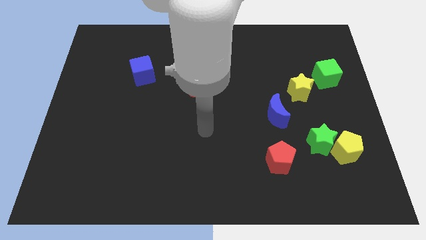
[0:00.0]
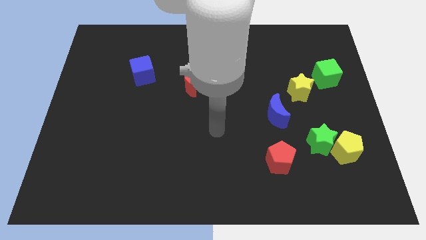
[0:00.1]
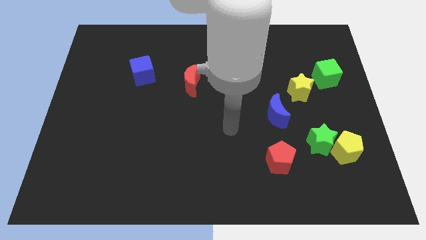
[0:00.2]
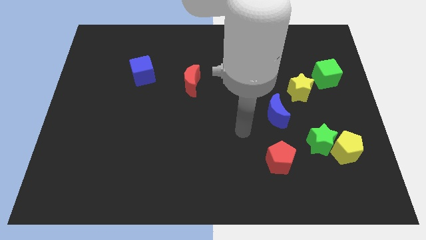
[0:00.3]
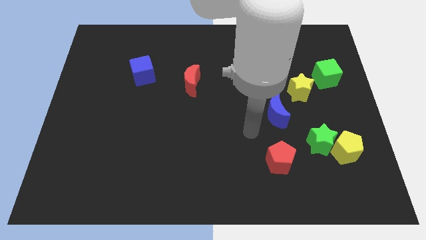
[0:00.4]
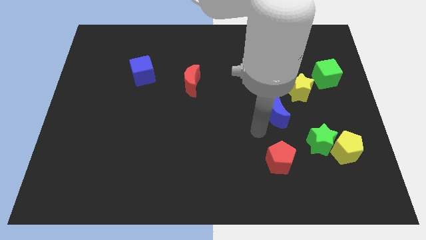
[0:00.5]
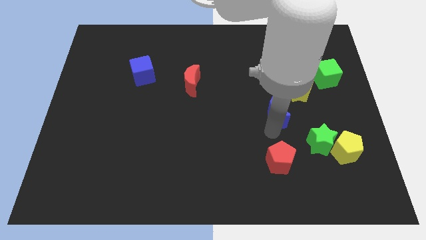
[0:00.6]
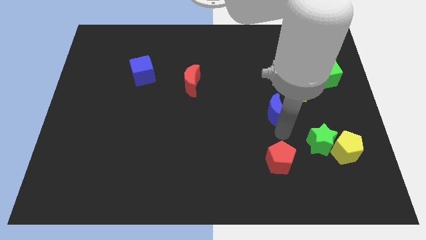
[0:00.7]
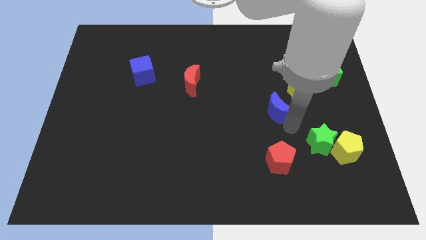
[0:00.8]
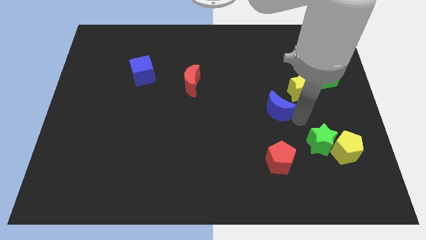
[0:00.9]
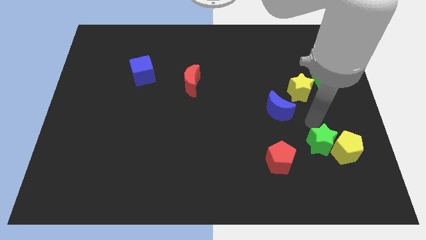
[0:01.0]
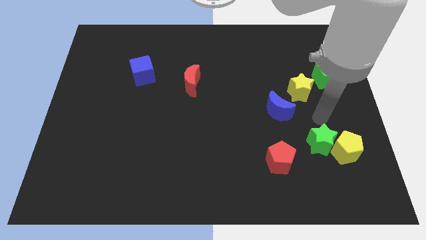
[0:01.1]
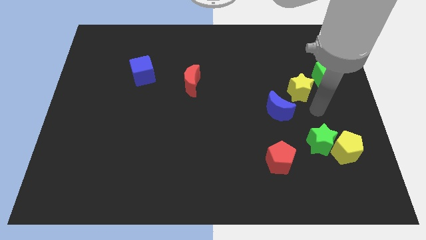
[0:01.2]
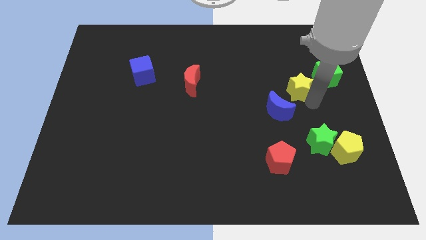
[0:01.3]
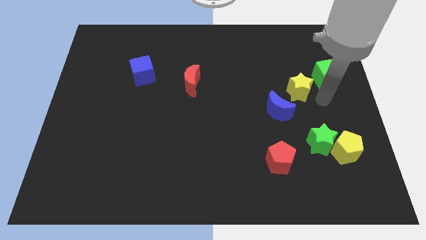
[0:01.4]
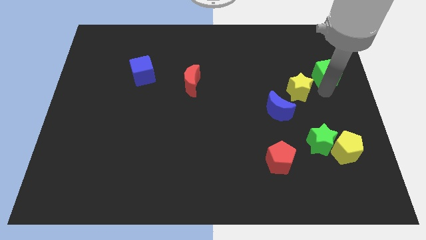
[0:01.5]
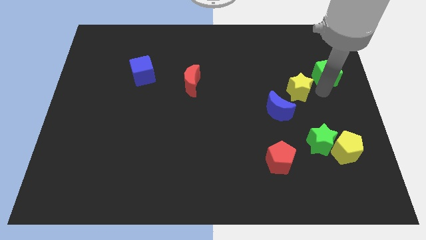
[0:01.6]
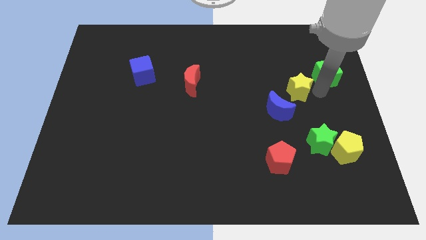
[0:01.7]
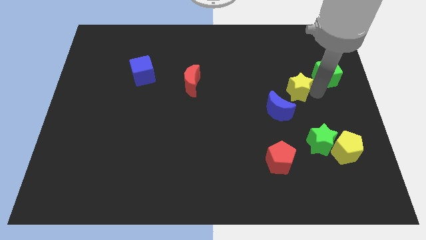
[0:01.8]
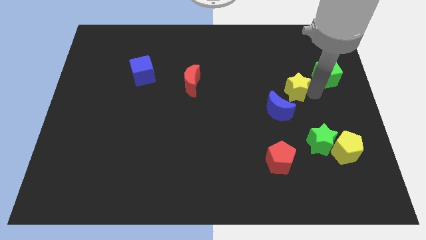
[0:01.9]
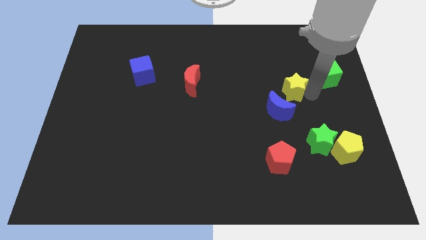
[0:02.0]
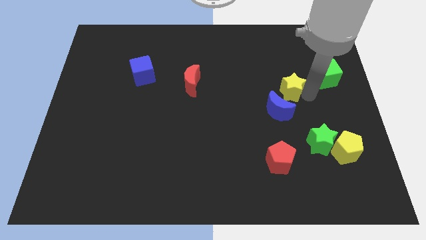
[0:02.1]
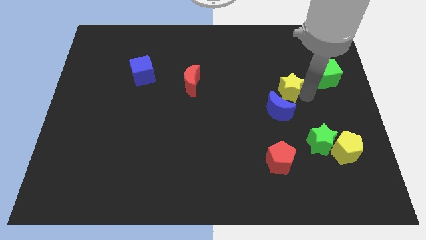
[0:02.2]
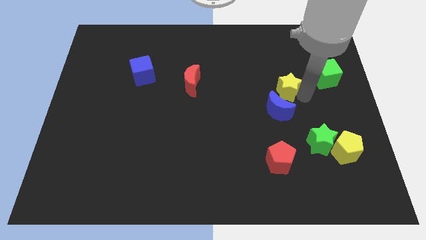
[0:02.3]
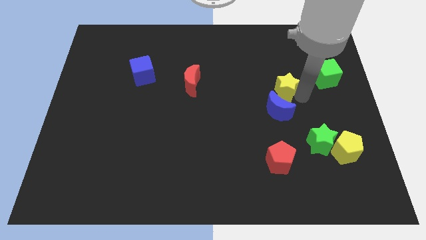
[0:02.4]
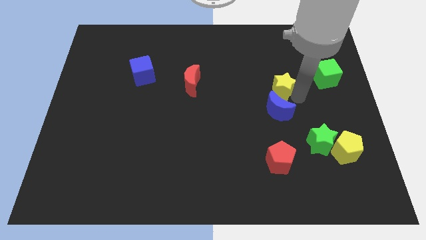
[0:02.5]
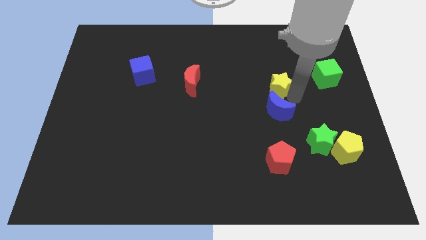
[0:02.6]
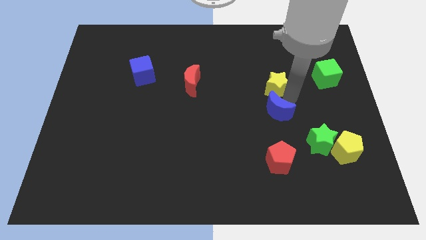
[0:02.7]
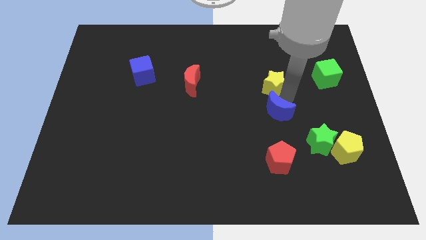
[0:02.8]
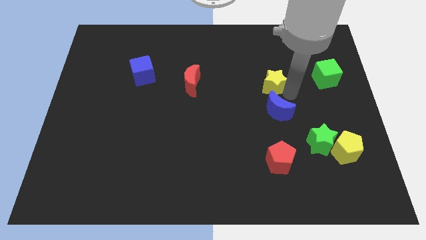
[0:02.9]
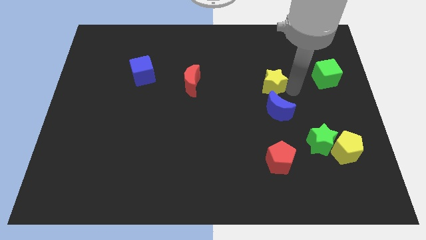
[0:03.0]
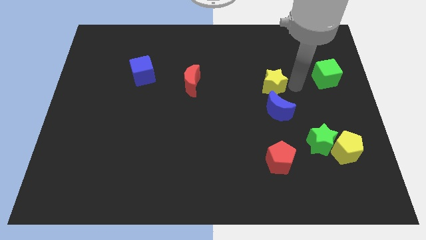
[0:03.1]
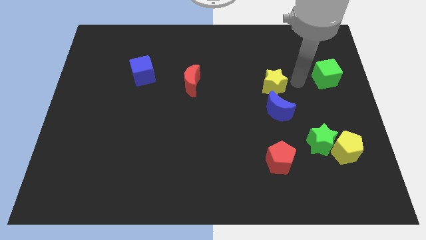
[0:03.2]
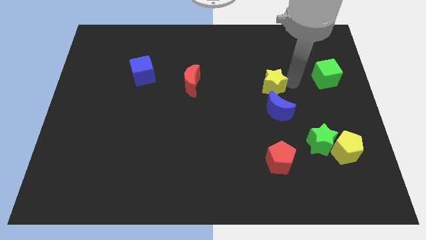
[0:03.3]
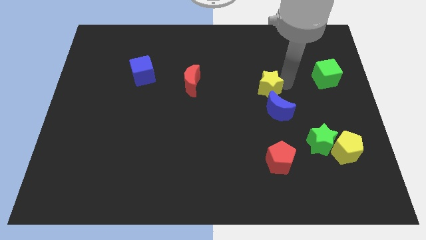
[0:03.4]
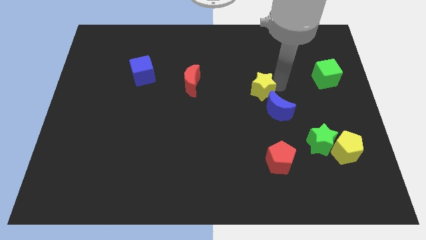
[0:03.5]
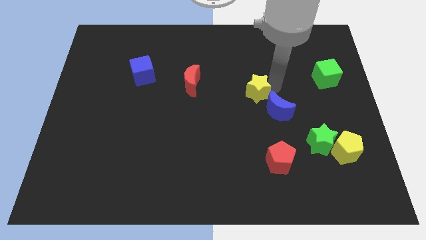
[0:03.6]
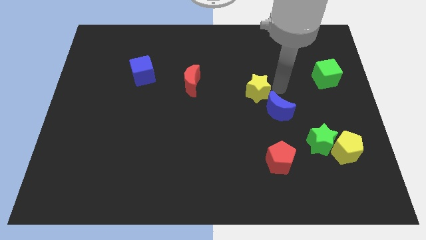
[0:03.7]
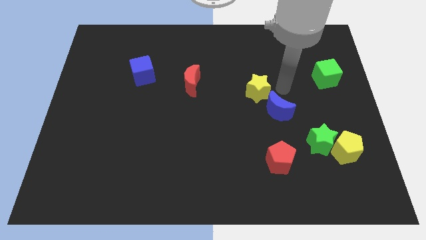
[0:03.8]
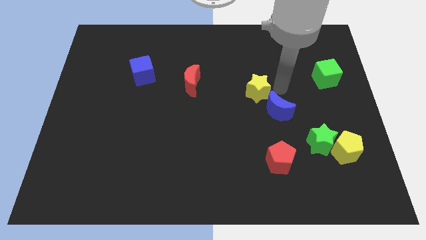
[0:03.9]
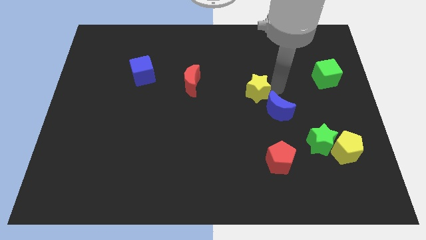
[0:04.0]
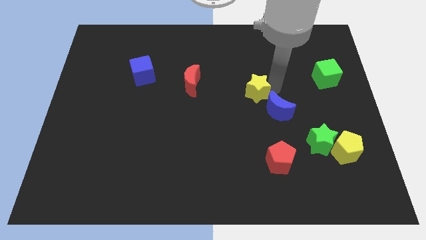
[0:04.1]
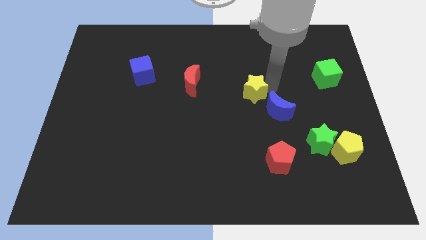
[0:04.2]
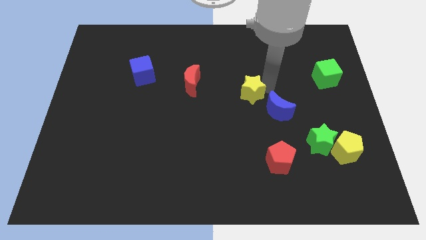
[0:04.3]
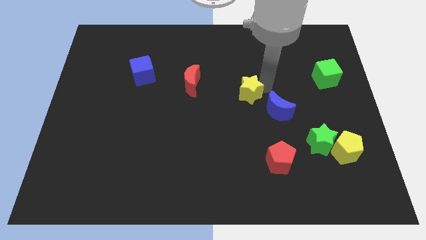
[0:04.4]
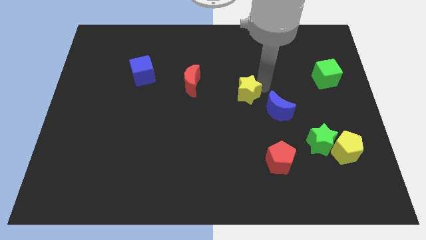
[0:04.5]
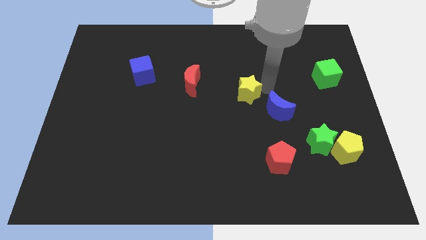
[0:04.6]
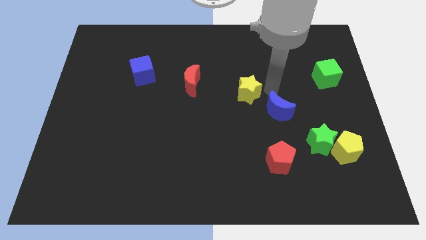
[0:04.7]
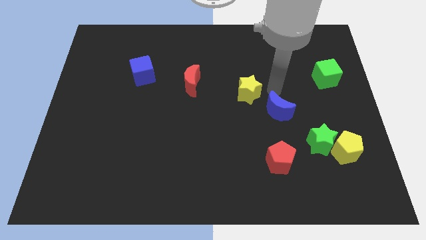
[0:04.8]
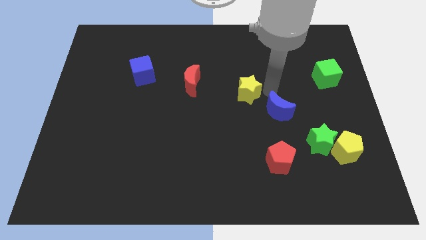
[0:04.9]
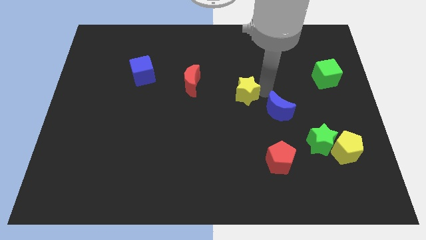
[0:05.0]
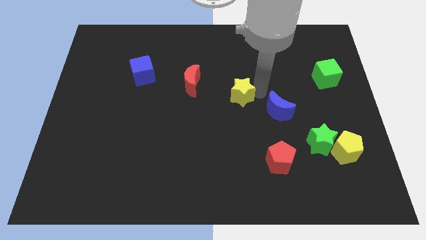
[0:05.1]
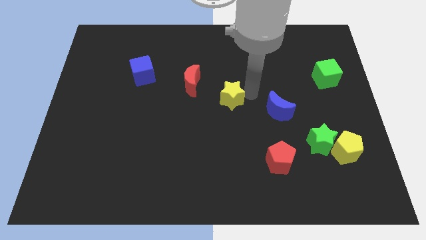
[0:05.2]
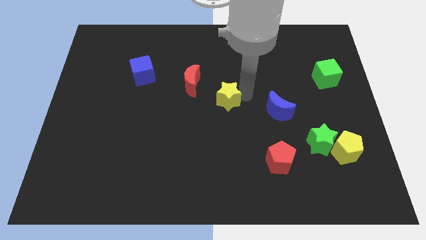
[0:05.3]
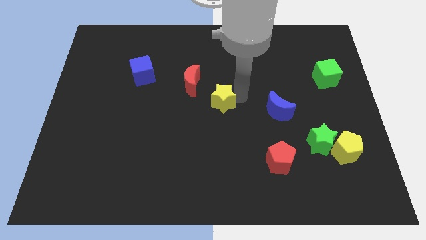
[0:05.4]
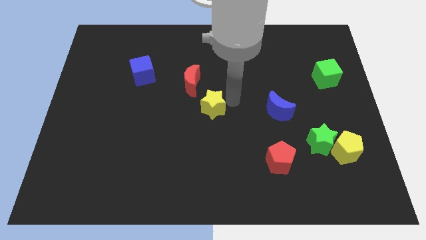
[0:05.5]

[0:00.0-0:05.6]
push the yellow star to the left

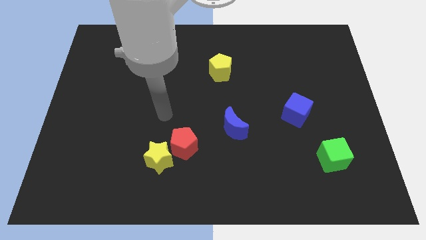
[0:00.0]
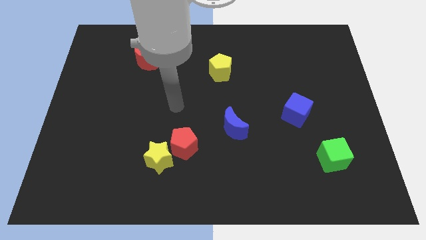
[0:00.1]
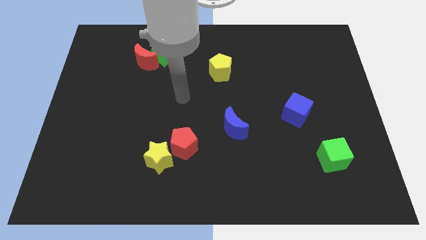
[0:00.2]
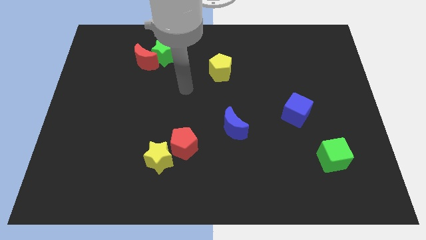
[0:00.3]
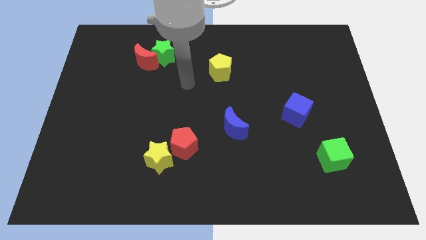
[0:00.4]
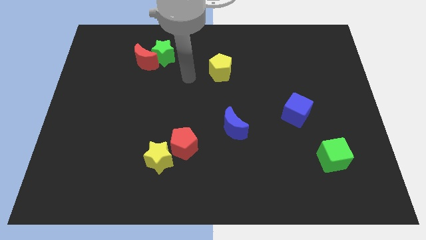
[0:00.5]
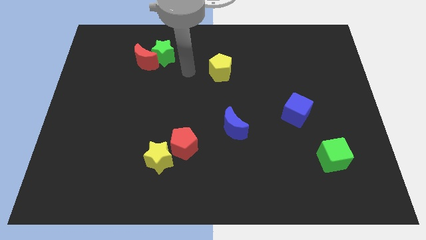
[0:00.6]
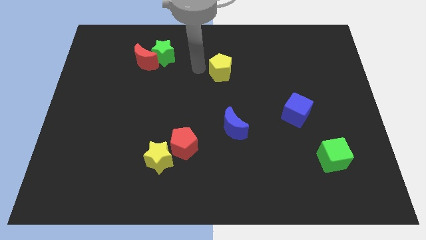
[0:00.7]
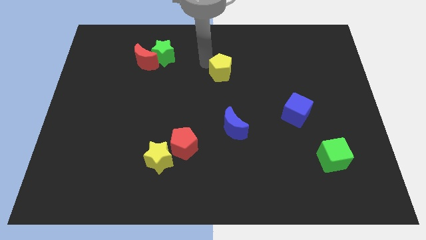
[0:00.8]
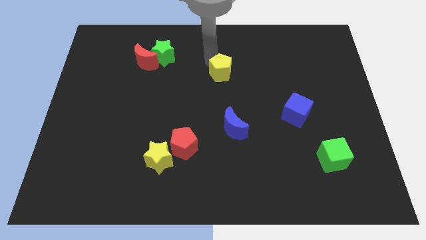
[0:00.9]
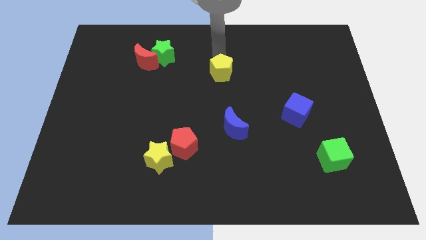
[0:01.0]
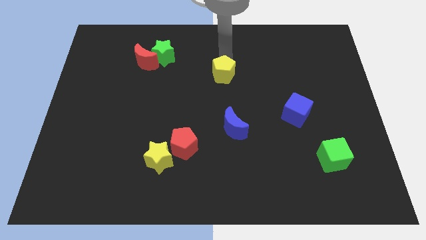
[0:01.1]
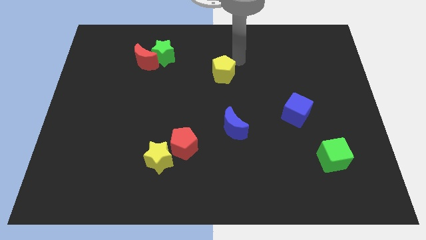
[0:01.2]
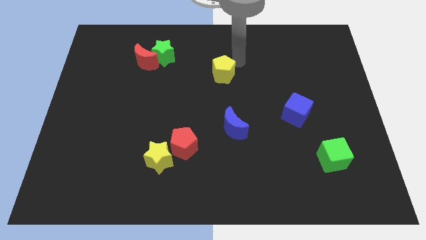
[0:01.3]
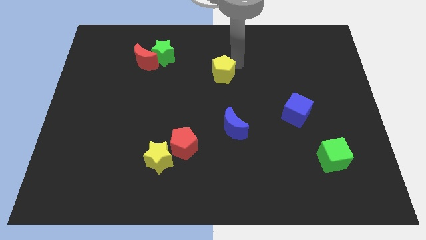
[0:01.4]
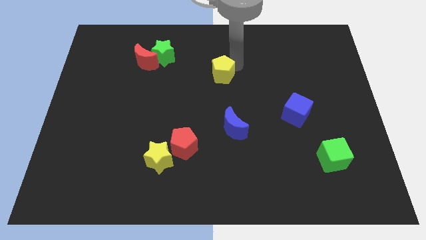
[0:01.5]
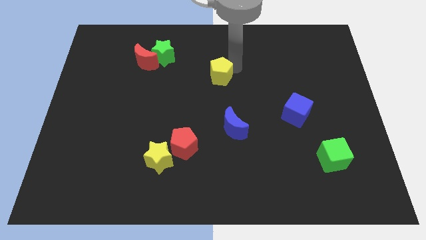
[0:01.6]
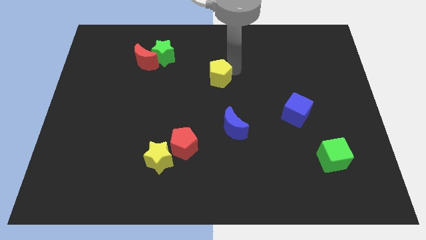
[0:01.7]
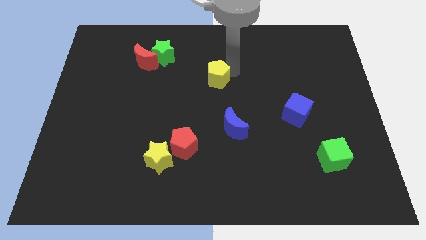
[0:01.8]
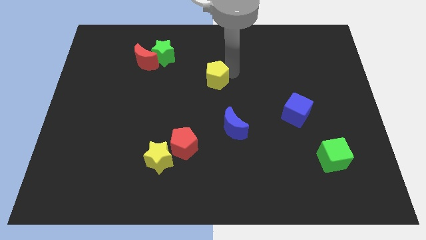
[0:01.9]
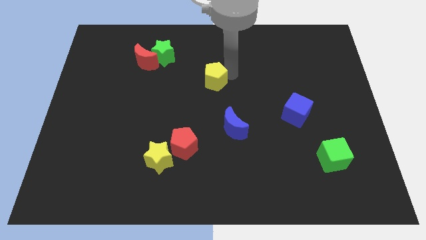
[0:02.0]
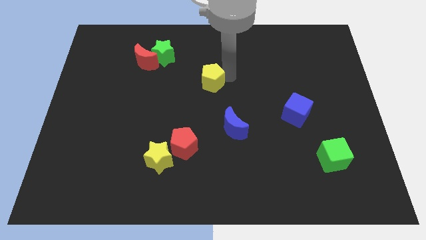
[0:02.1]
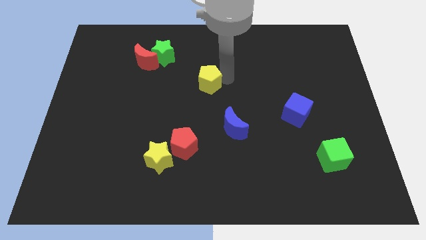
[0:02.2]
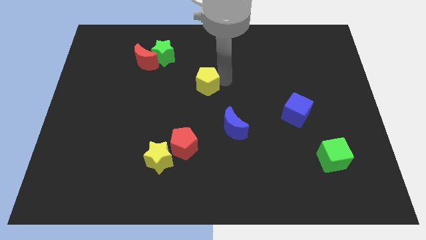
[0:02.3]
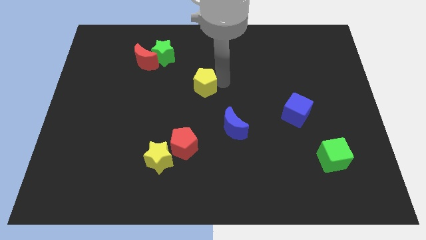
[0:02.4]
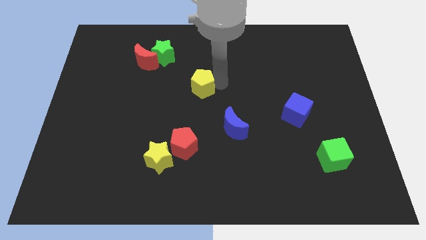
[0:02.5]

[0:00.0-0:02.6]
slightly slide the yellow pentagon downwards and then to the left
